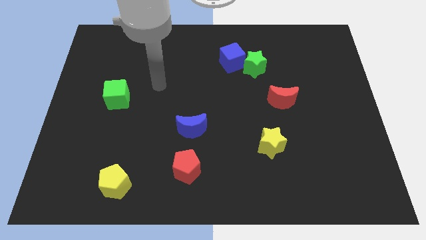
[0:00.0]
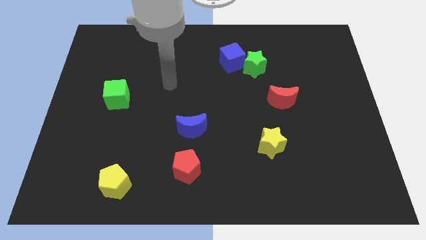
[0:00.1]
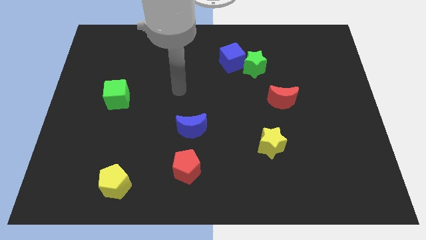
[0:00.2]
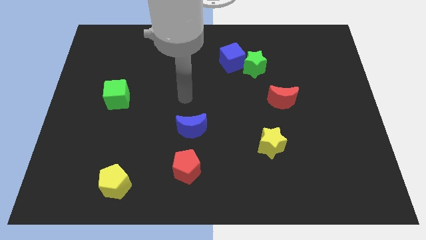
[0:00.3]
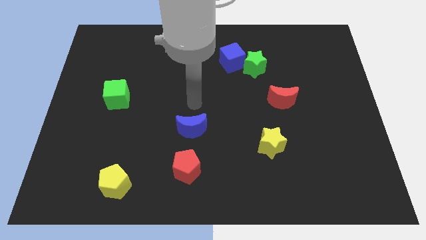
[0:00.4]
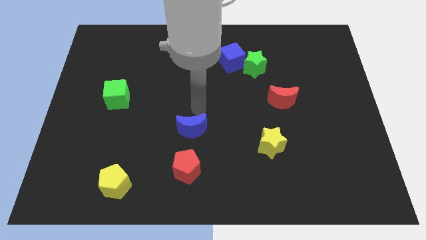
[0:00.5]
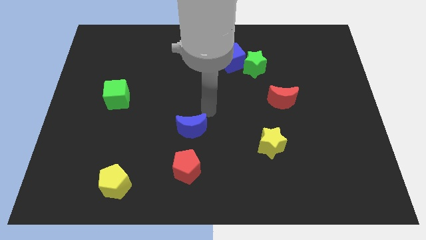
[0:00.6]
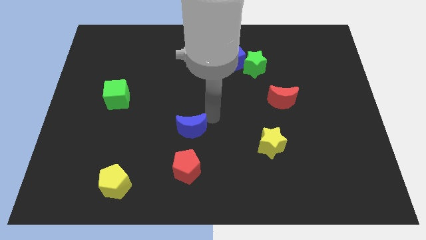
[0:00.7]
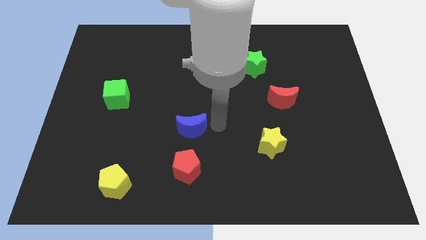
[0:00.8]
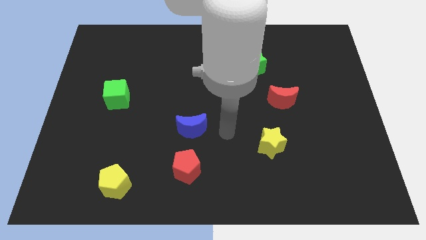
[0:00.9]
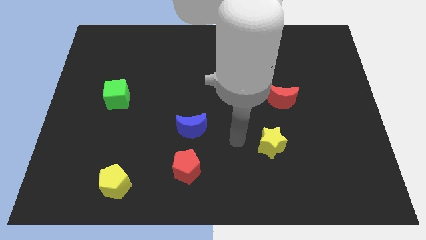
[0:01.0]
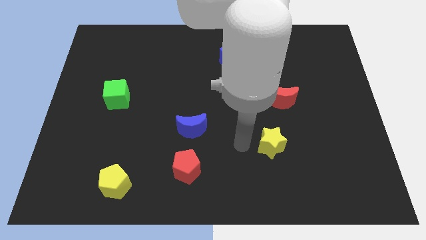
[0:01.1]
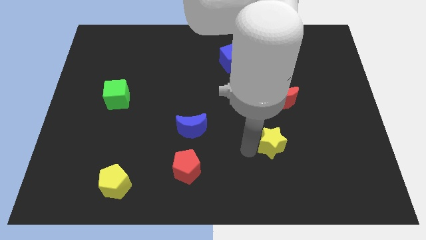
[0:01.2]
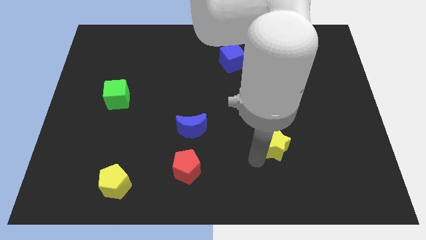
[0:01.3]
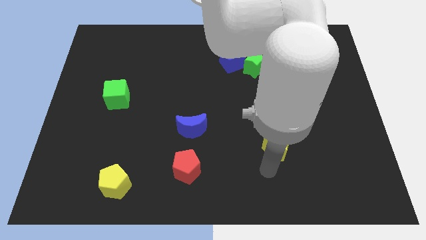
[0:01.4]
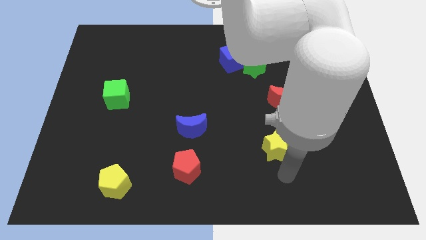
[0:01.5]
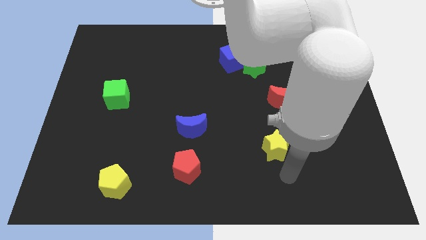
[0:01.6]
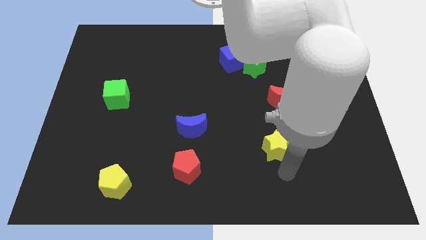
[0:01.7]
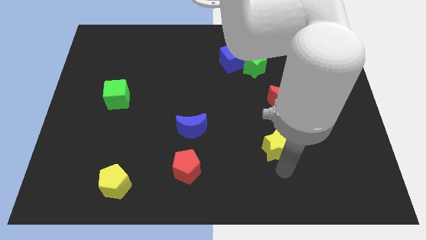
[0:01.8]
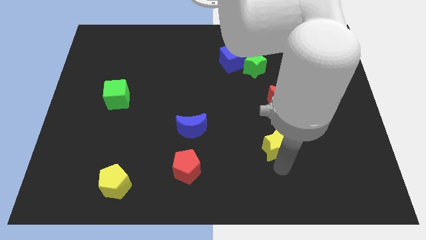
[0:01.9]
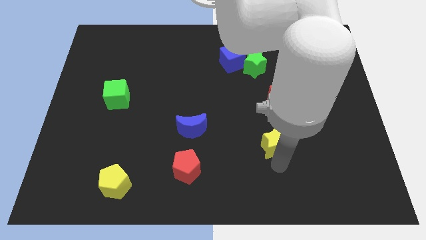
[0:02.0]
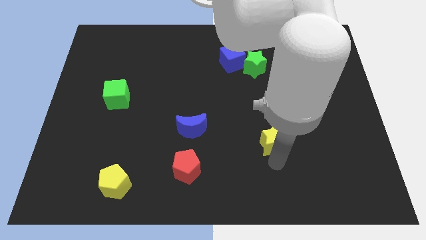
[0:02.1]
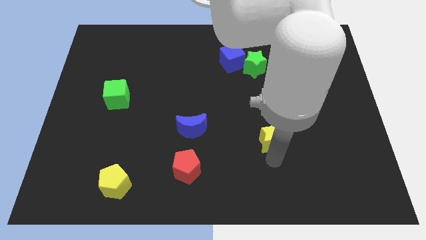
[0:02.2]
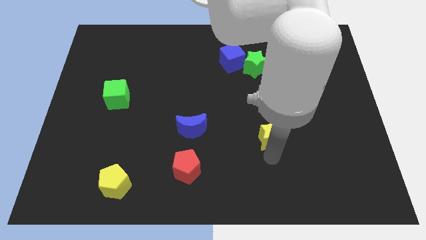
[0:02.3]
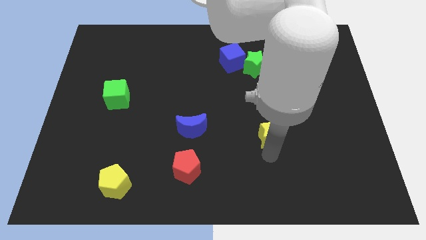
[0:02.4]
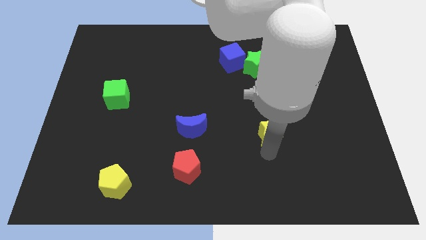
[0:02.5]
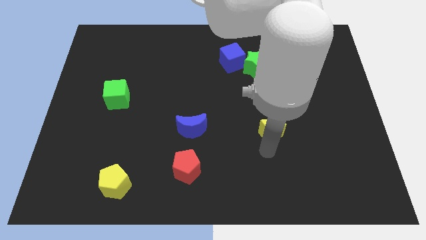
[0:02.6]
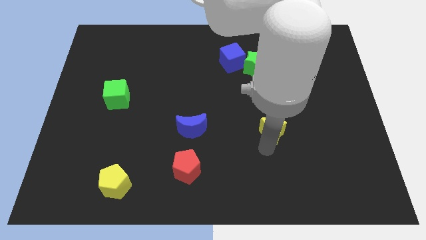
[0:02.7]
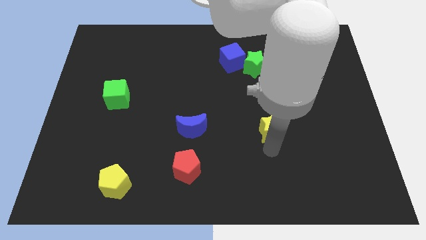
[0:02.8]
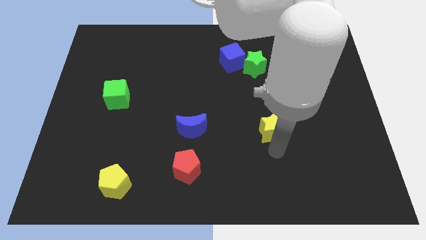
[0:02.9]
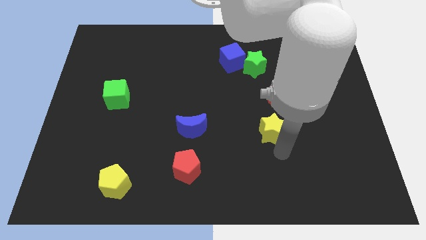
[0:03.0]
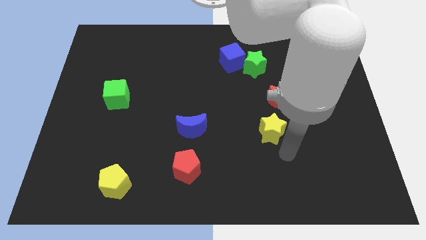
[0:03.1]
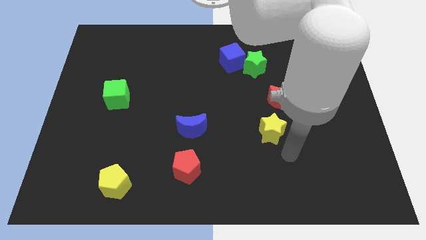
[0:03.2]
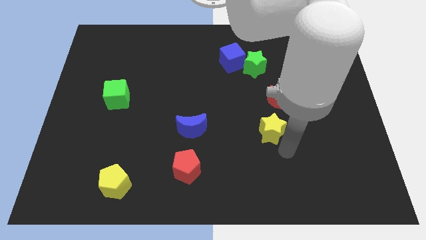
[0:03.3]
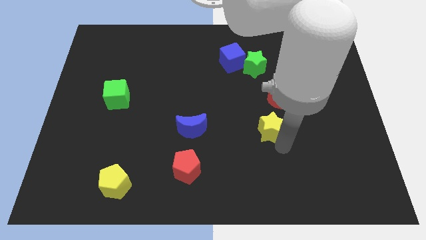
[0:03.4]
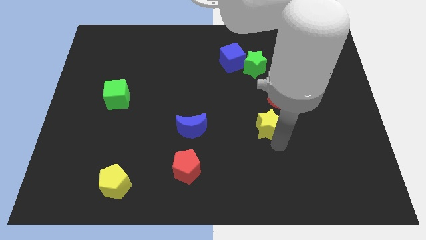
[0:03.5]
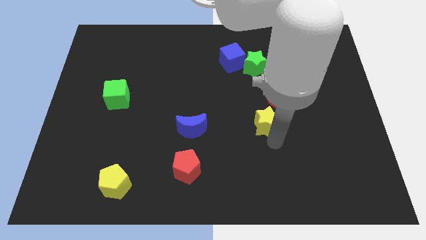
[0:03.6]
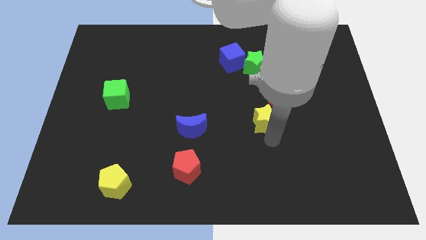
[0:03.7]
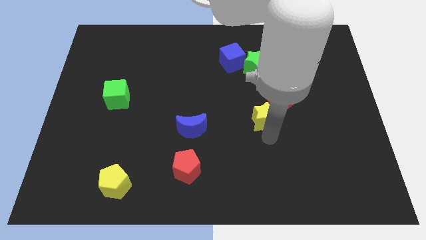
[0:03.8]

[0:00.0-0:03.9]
push the yellow star up slightly

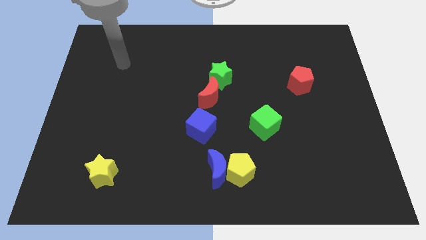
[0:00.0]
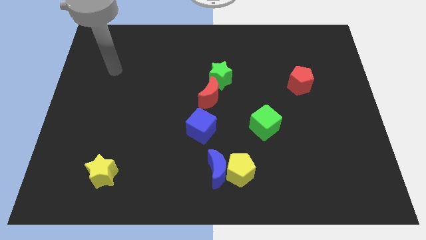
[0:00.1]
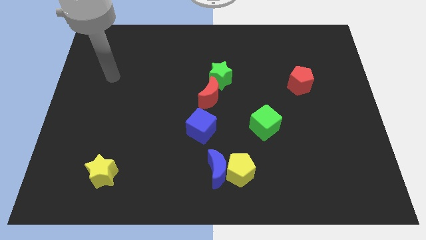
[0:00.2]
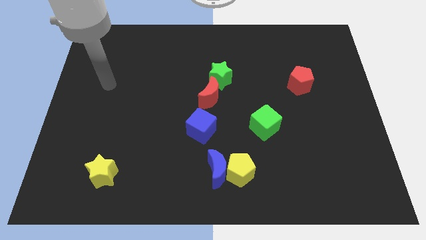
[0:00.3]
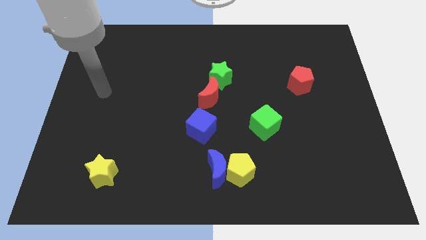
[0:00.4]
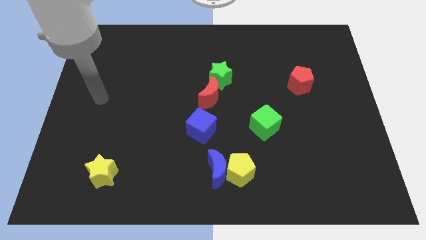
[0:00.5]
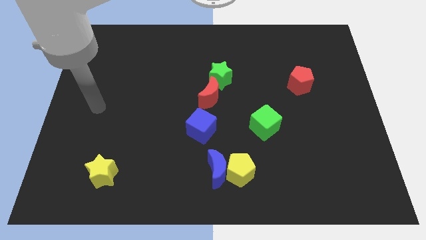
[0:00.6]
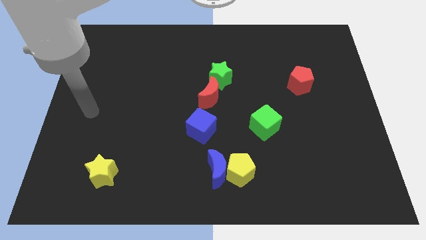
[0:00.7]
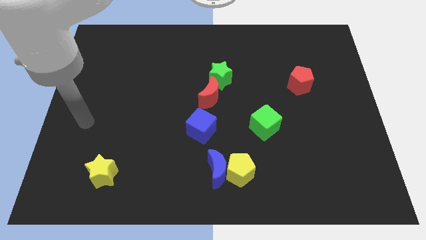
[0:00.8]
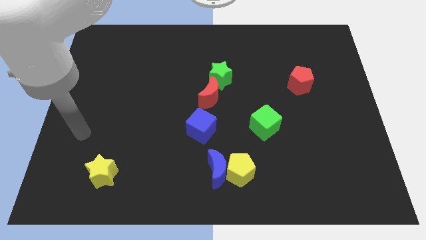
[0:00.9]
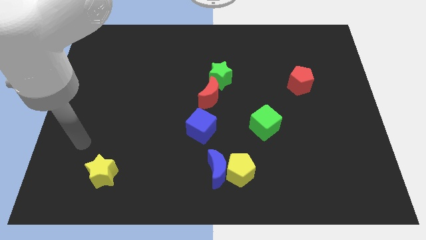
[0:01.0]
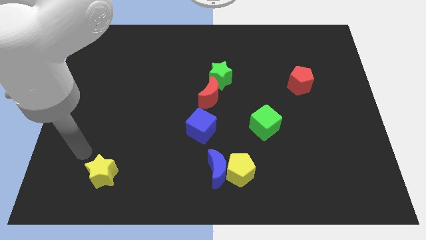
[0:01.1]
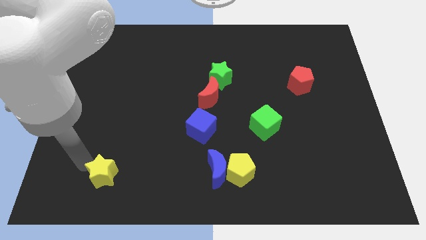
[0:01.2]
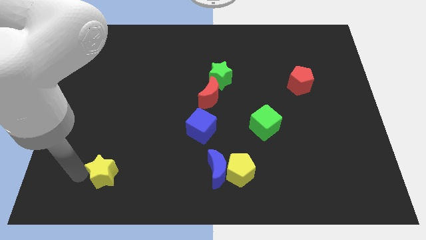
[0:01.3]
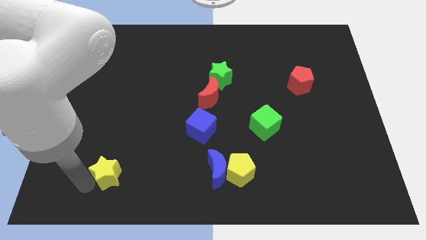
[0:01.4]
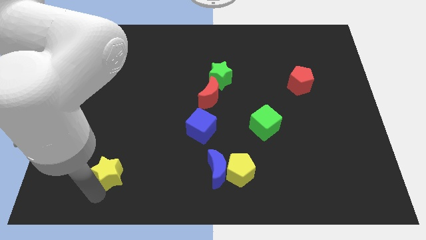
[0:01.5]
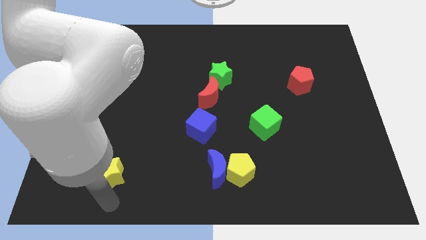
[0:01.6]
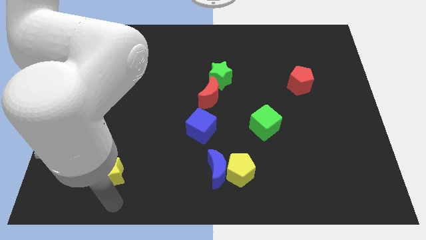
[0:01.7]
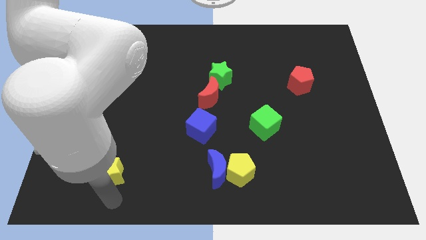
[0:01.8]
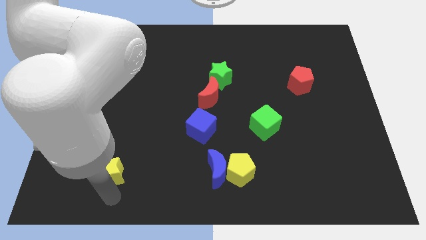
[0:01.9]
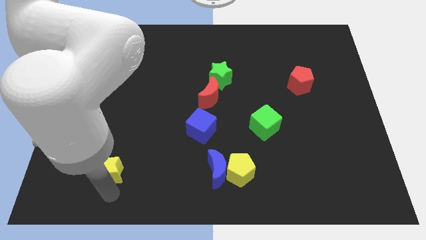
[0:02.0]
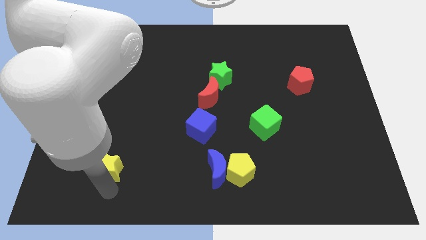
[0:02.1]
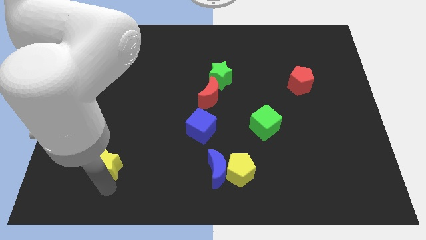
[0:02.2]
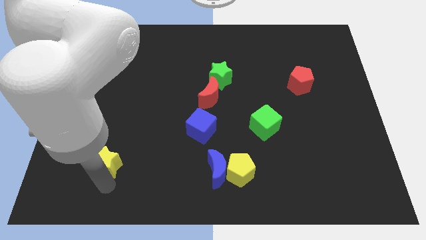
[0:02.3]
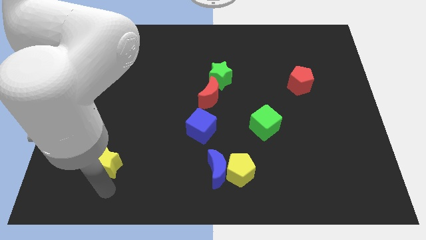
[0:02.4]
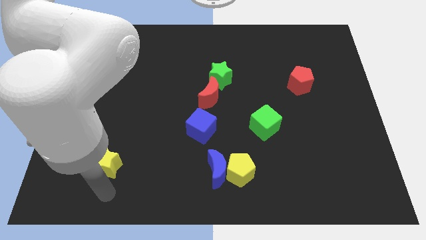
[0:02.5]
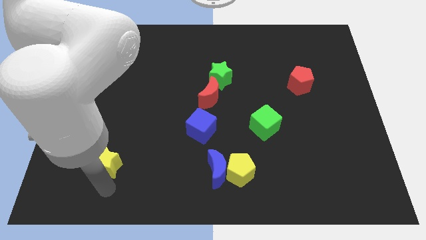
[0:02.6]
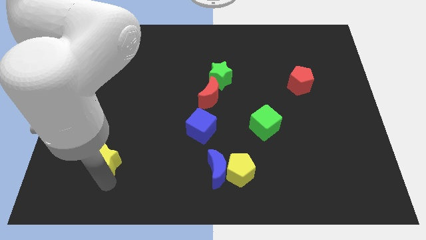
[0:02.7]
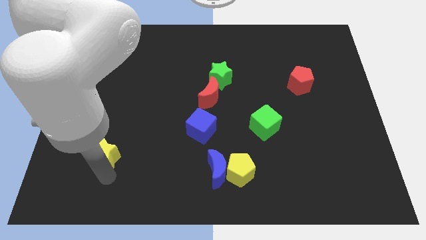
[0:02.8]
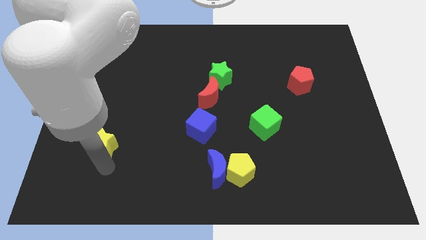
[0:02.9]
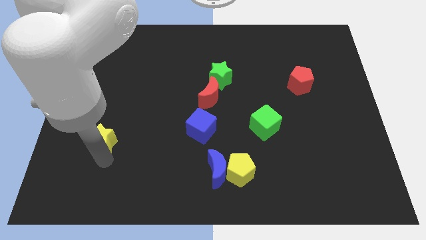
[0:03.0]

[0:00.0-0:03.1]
slightly push the yellow star up

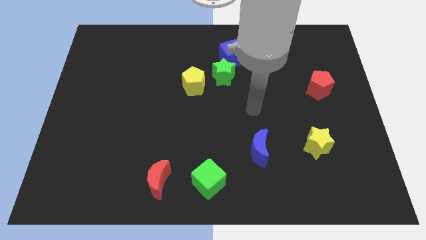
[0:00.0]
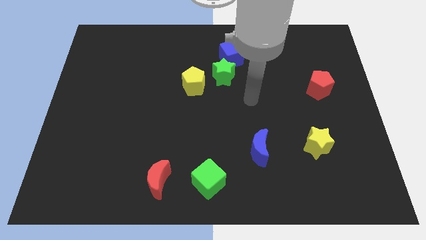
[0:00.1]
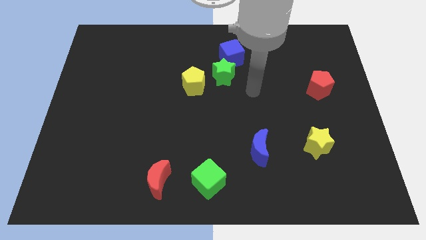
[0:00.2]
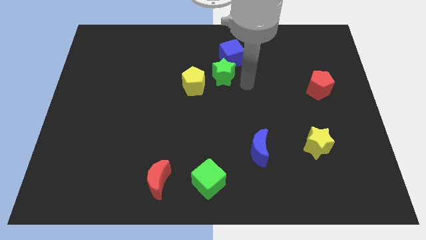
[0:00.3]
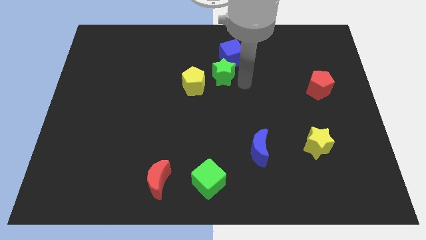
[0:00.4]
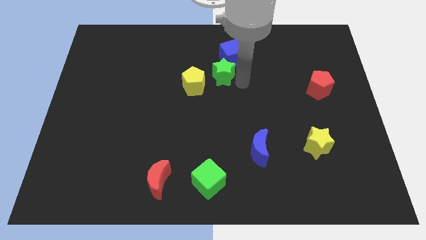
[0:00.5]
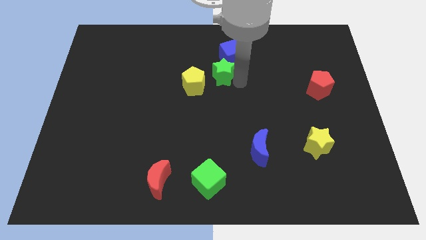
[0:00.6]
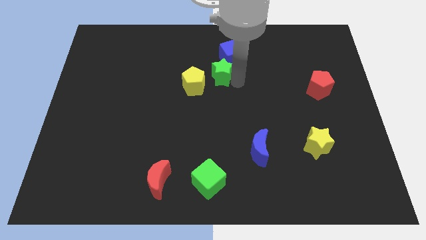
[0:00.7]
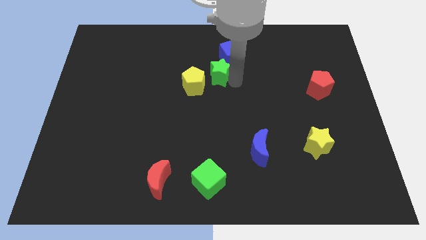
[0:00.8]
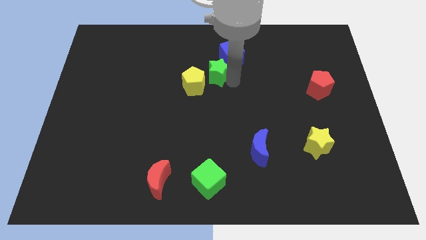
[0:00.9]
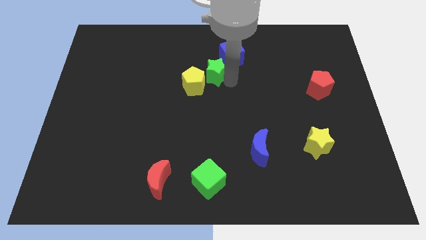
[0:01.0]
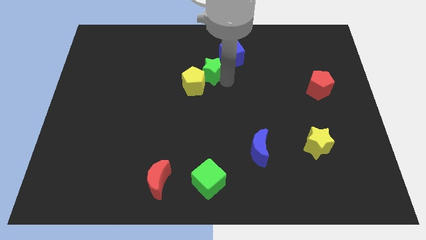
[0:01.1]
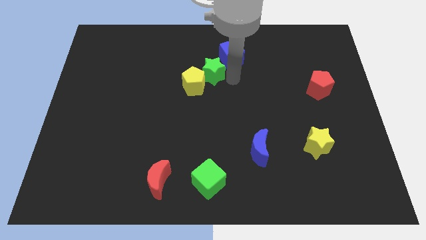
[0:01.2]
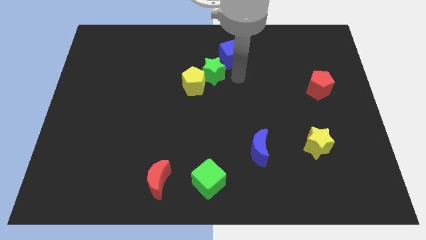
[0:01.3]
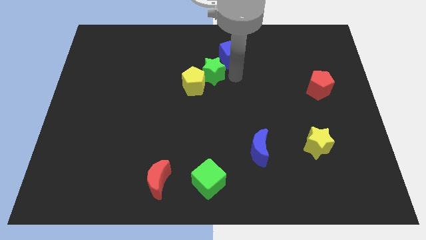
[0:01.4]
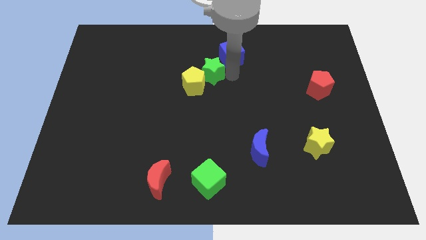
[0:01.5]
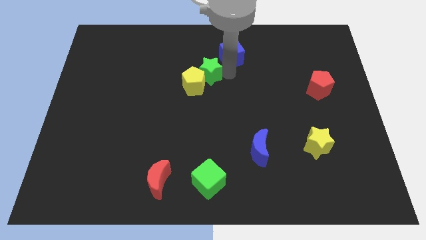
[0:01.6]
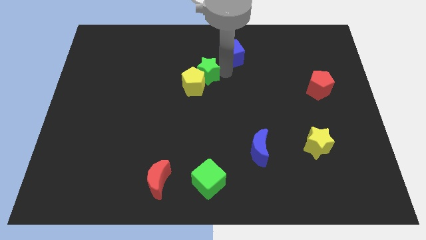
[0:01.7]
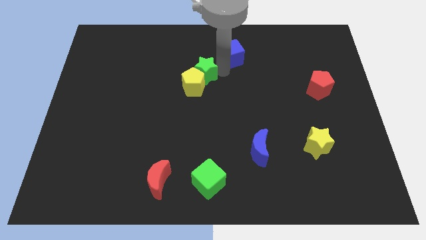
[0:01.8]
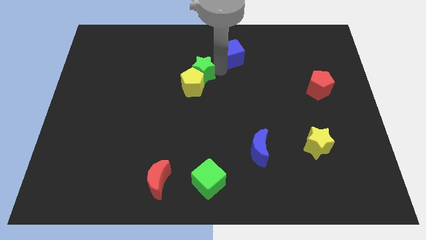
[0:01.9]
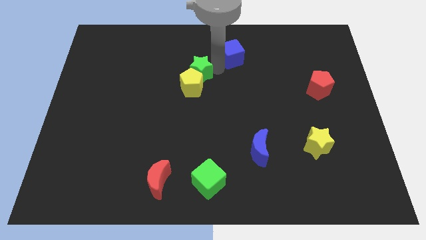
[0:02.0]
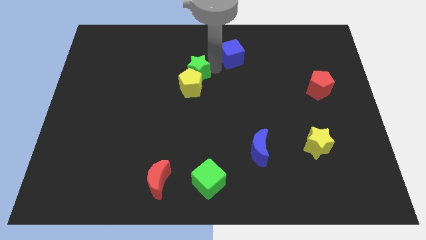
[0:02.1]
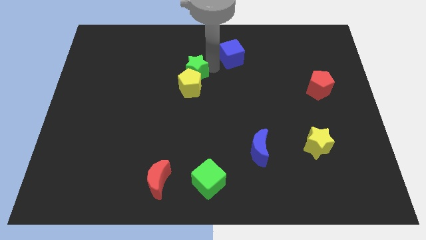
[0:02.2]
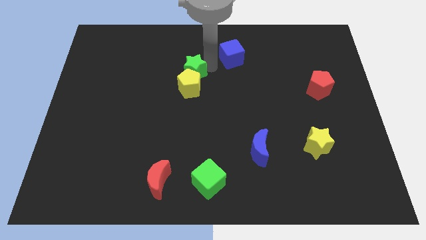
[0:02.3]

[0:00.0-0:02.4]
move the green star a little to the left
